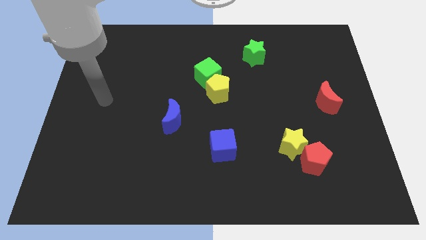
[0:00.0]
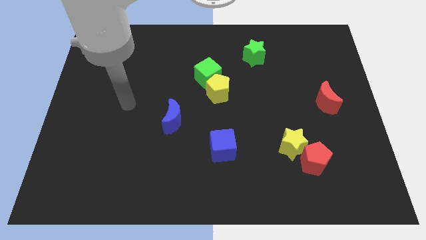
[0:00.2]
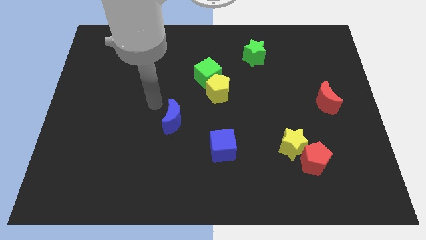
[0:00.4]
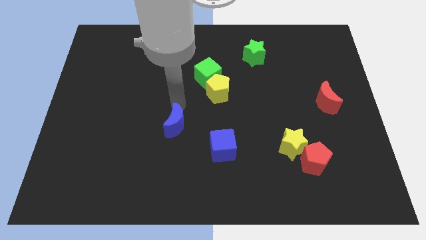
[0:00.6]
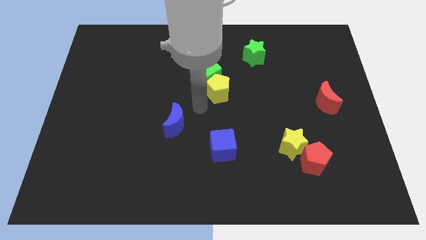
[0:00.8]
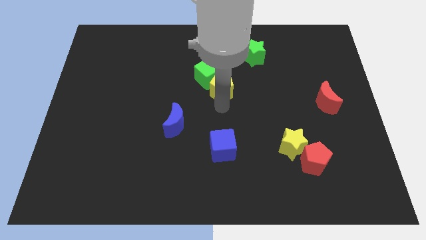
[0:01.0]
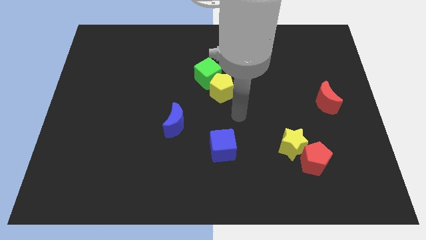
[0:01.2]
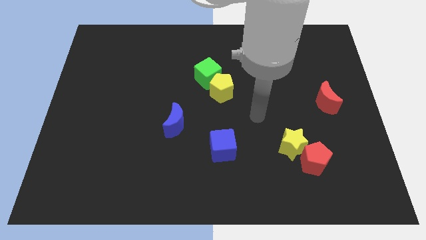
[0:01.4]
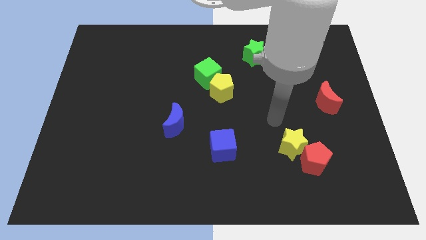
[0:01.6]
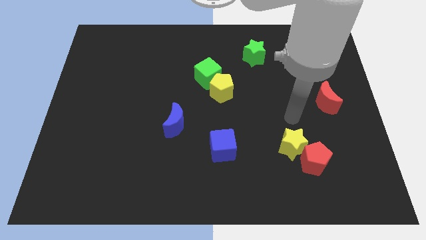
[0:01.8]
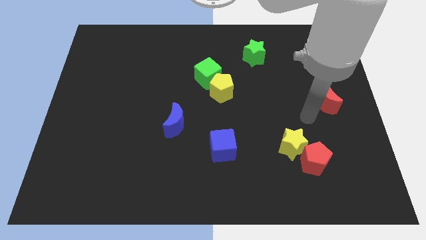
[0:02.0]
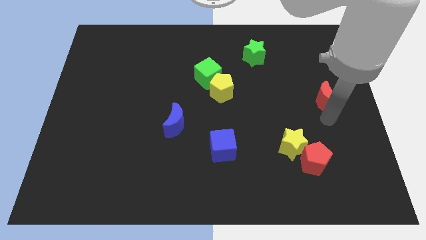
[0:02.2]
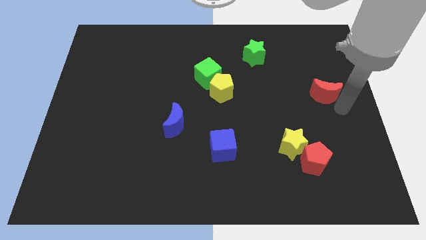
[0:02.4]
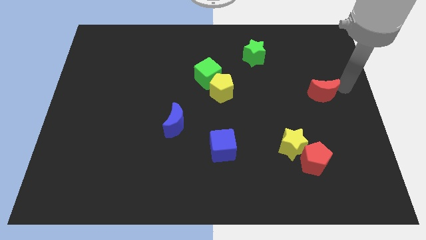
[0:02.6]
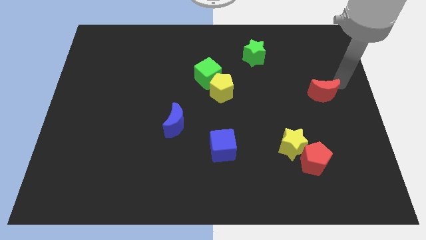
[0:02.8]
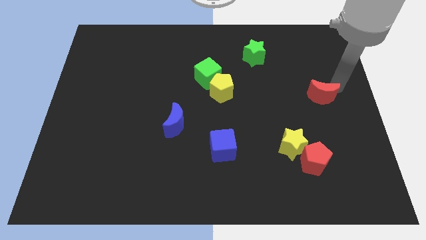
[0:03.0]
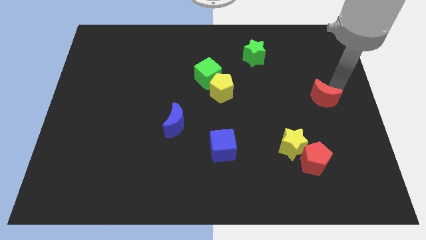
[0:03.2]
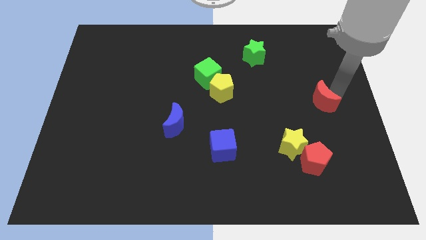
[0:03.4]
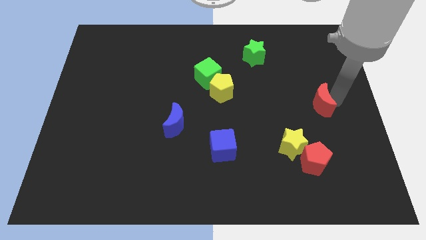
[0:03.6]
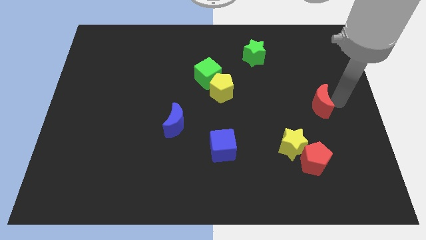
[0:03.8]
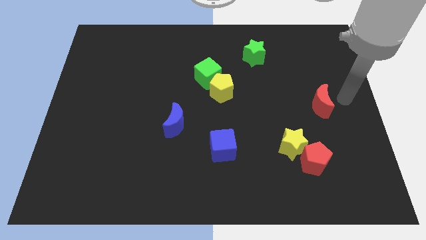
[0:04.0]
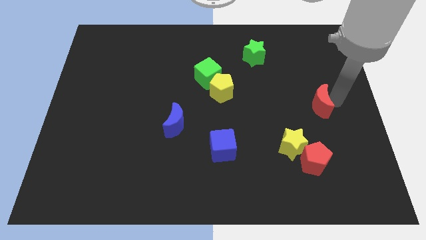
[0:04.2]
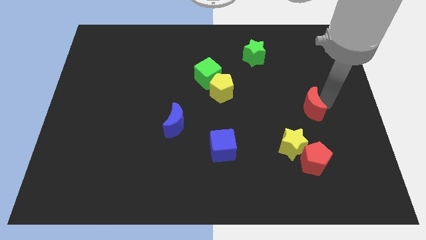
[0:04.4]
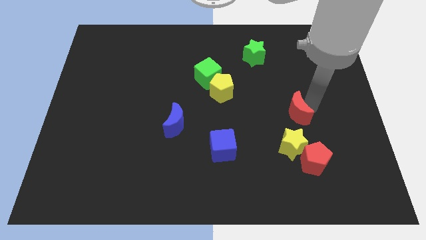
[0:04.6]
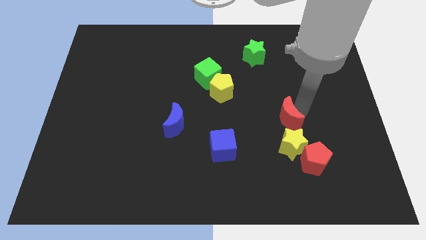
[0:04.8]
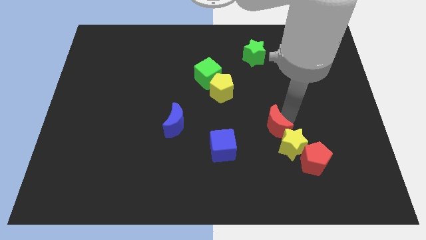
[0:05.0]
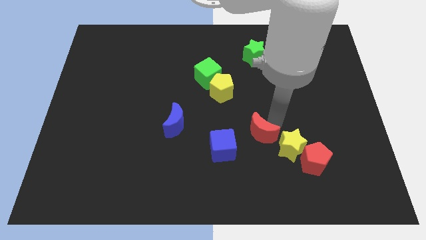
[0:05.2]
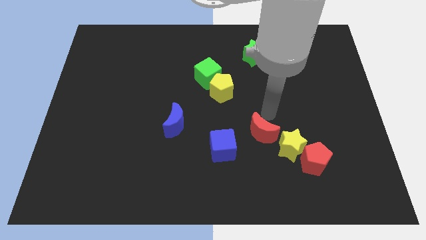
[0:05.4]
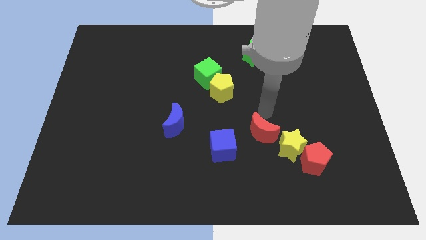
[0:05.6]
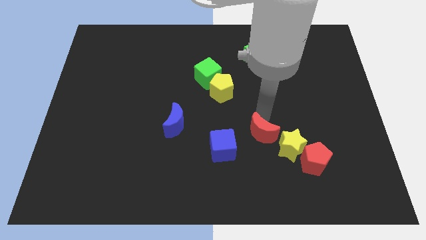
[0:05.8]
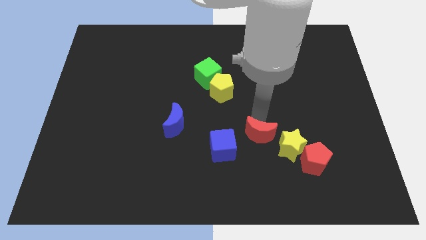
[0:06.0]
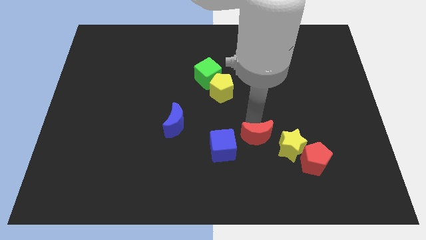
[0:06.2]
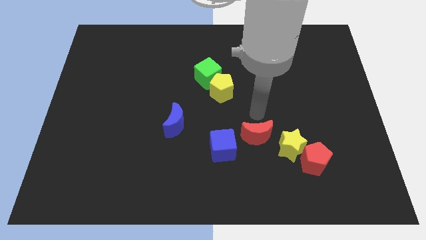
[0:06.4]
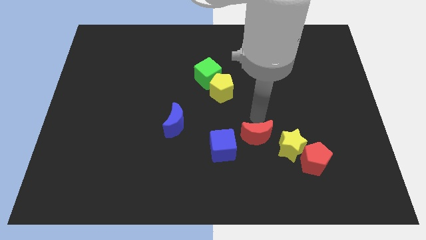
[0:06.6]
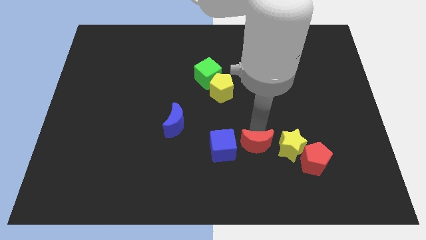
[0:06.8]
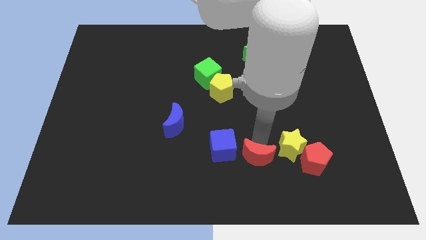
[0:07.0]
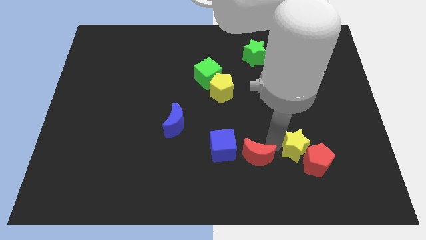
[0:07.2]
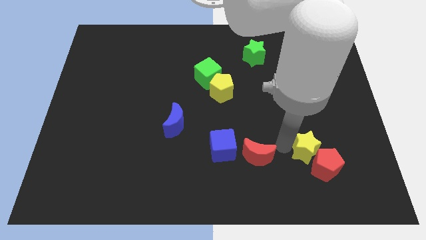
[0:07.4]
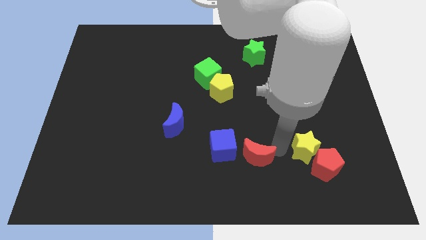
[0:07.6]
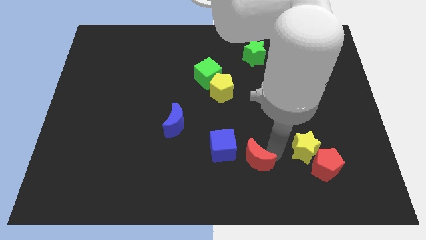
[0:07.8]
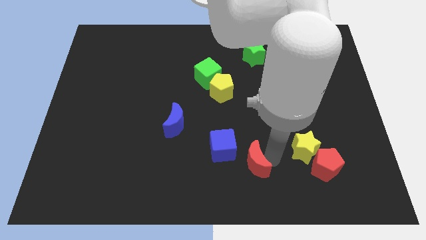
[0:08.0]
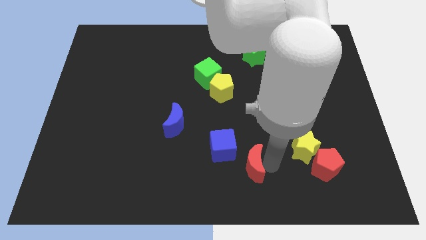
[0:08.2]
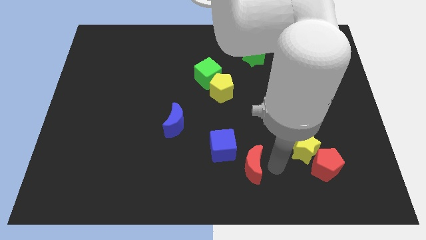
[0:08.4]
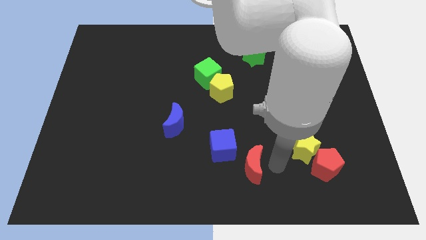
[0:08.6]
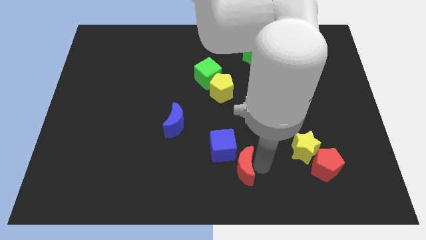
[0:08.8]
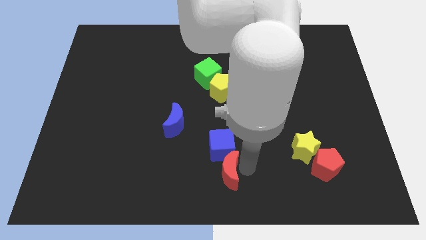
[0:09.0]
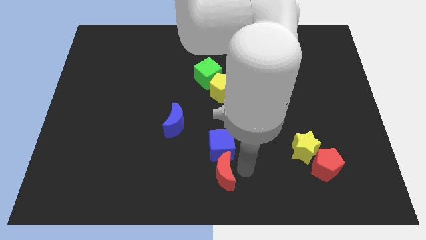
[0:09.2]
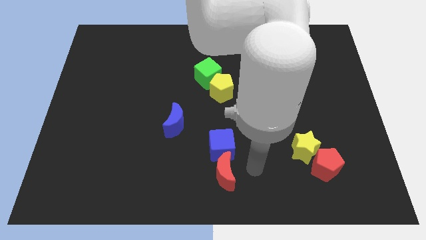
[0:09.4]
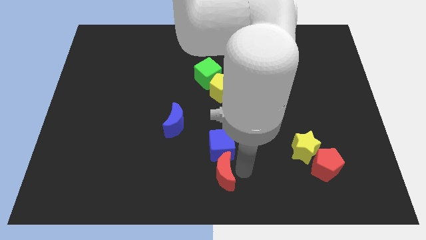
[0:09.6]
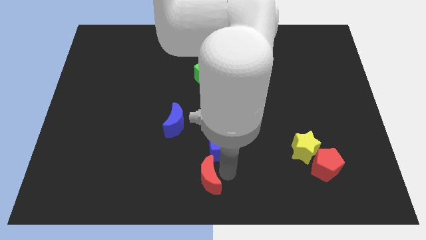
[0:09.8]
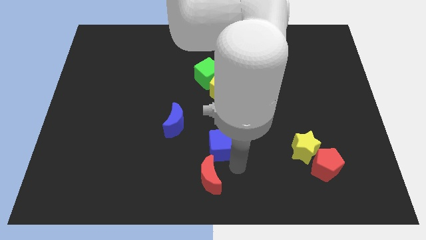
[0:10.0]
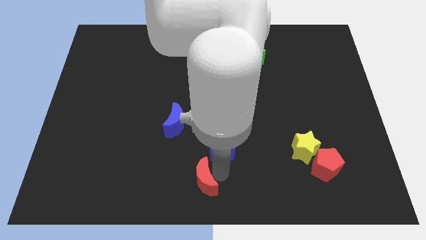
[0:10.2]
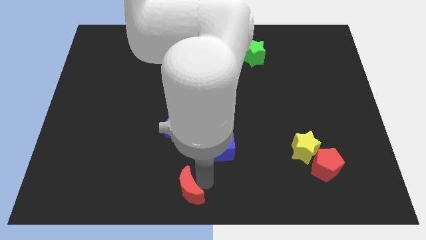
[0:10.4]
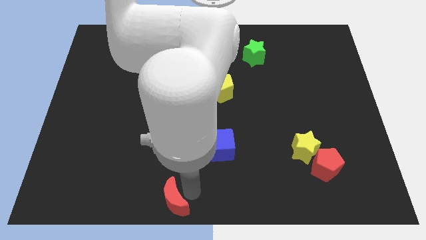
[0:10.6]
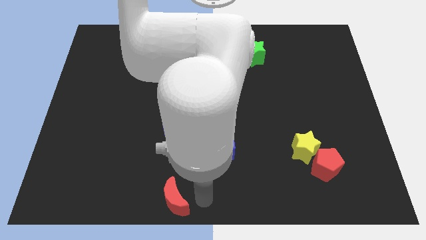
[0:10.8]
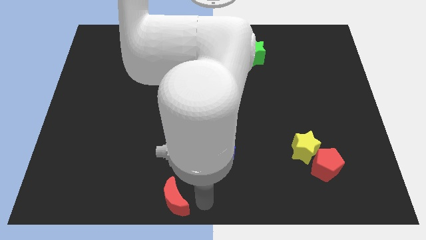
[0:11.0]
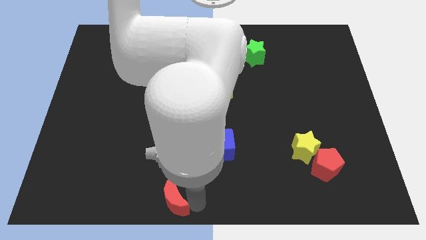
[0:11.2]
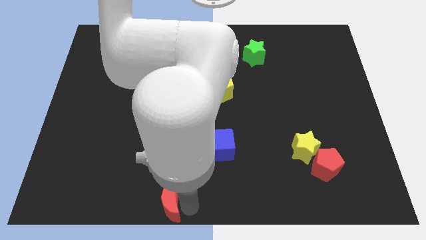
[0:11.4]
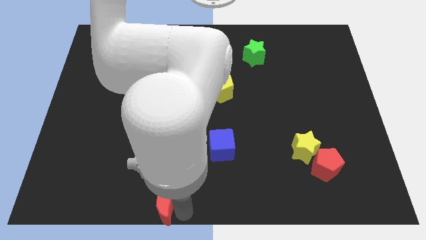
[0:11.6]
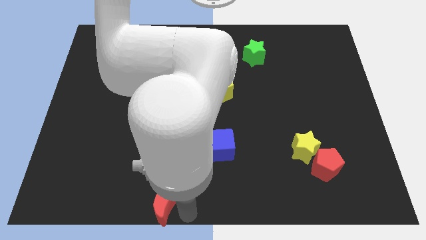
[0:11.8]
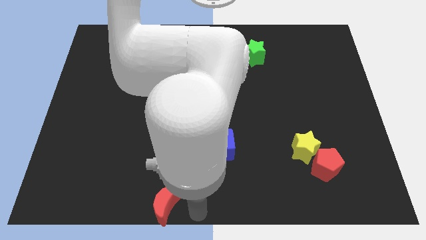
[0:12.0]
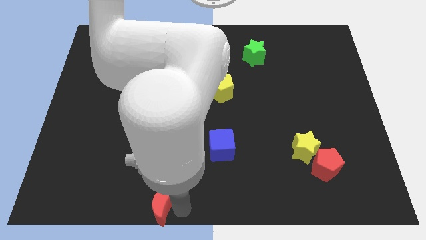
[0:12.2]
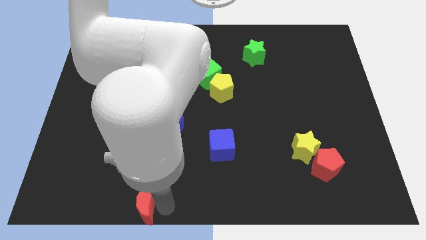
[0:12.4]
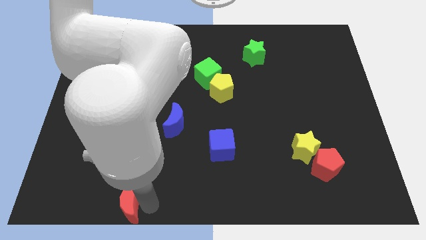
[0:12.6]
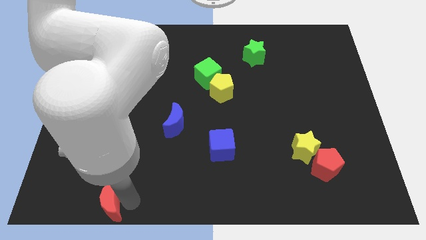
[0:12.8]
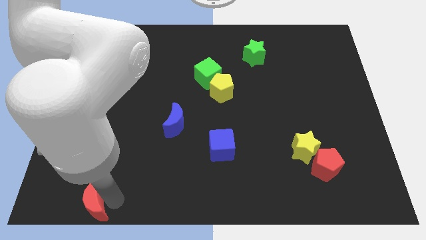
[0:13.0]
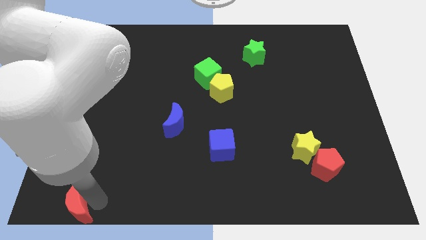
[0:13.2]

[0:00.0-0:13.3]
push the red moon to the bottom left
